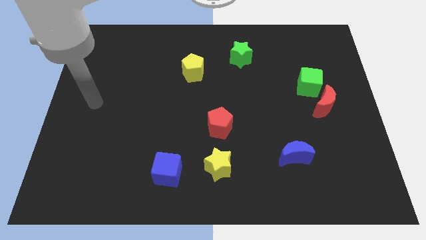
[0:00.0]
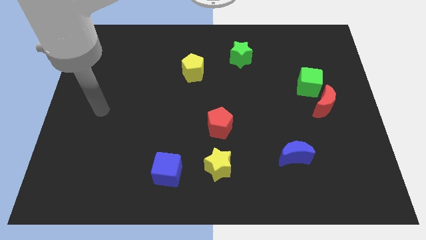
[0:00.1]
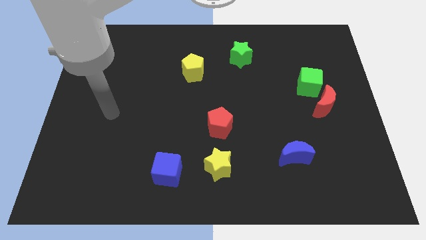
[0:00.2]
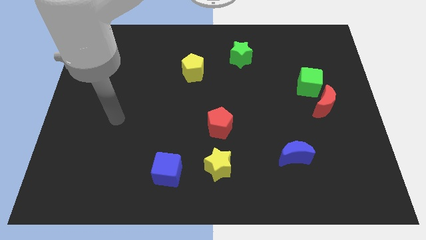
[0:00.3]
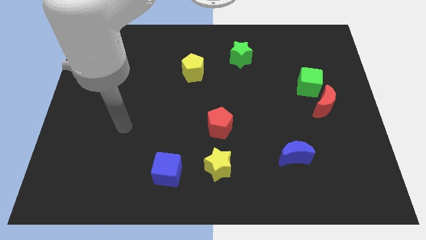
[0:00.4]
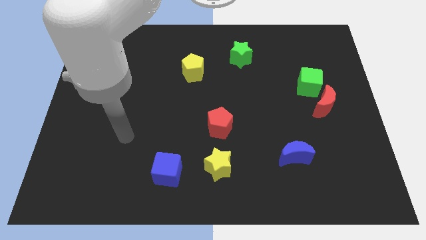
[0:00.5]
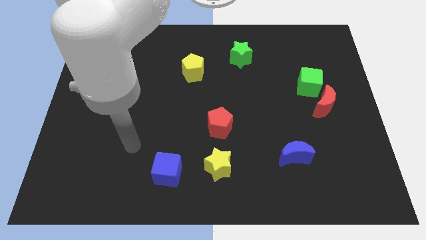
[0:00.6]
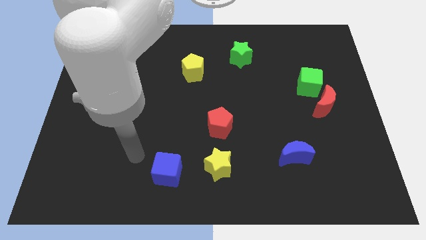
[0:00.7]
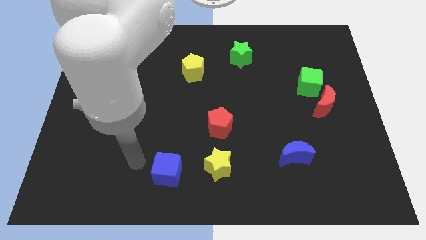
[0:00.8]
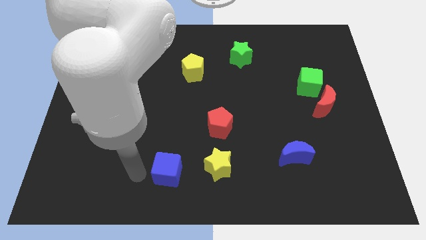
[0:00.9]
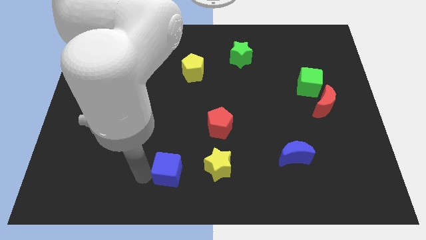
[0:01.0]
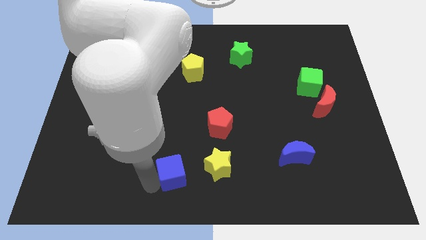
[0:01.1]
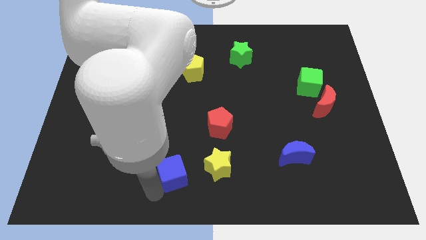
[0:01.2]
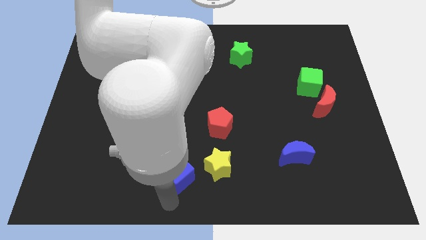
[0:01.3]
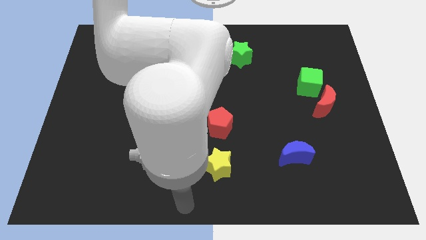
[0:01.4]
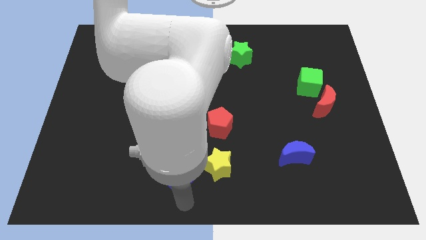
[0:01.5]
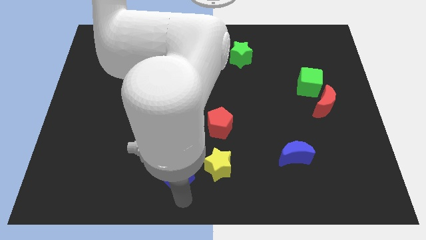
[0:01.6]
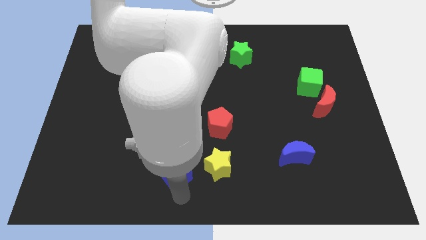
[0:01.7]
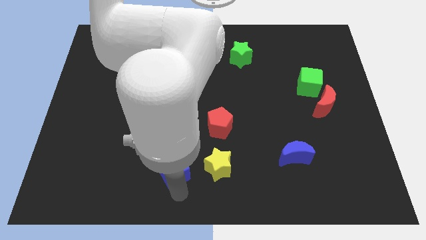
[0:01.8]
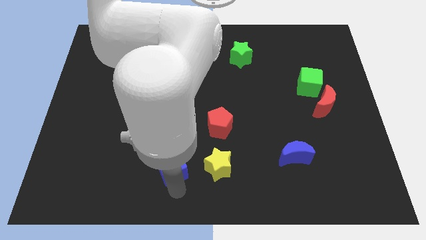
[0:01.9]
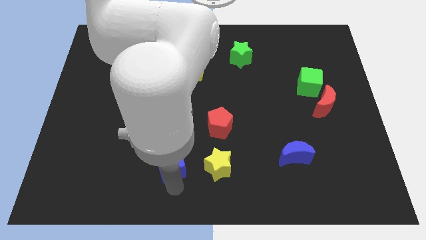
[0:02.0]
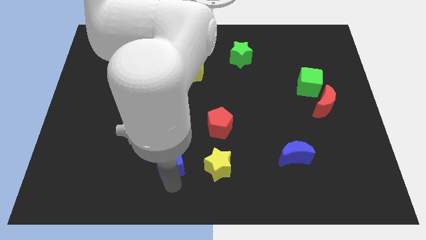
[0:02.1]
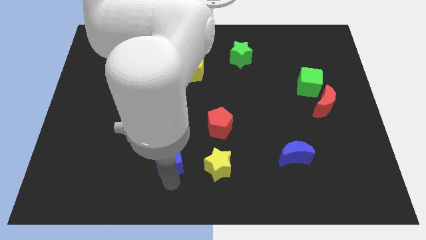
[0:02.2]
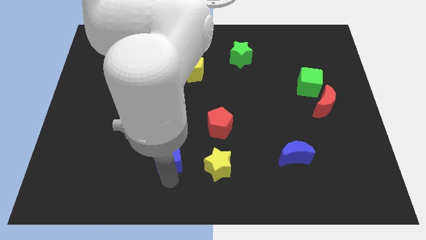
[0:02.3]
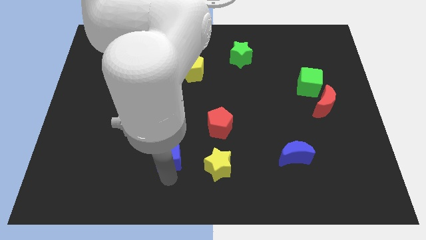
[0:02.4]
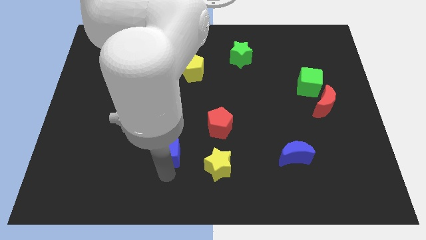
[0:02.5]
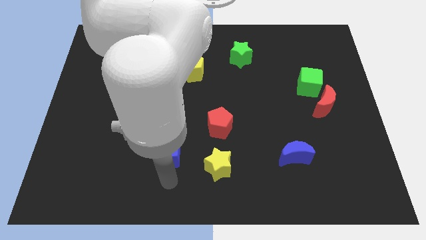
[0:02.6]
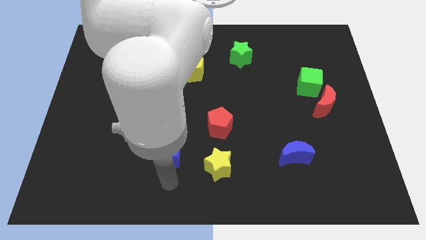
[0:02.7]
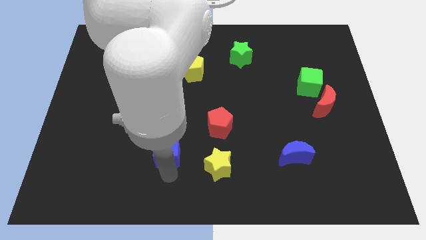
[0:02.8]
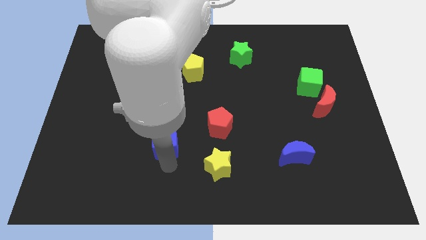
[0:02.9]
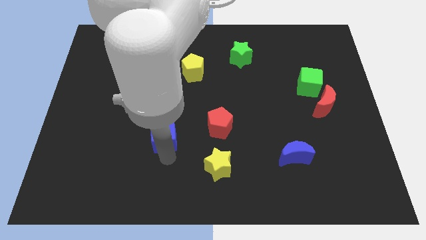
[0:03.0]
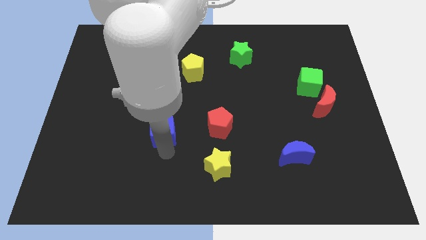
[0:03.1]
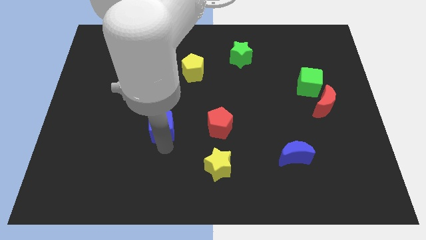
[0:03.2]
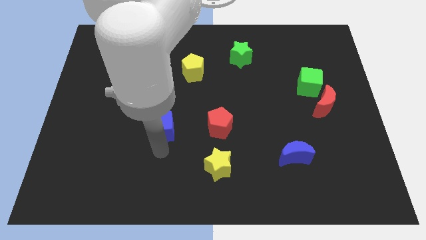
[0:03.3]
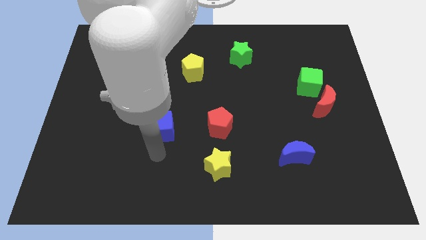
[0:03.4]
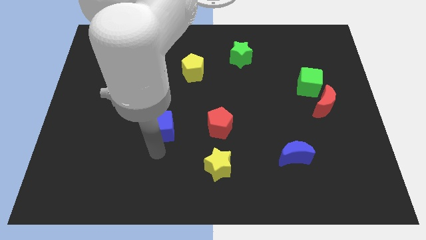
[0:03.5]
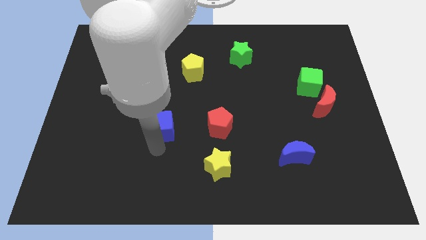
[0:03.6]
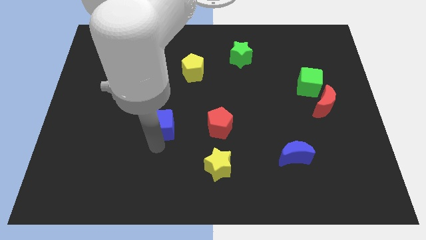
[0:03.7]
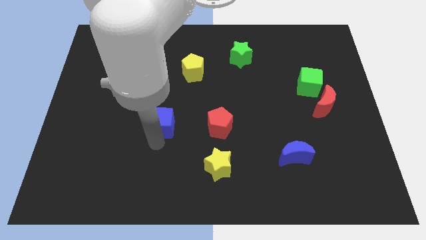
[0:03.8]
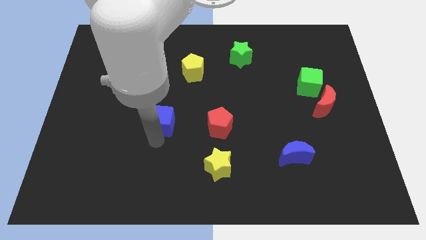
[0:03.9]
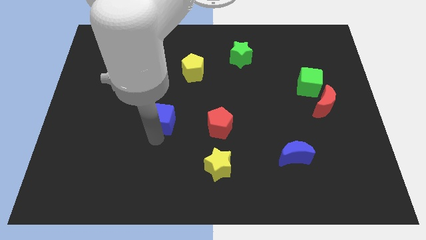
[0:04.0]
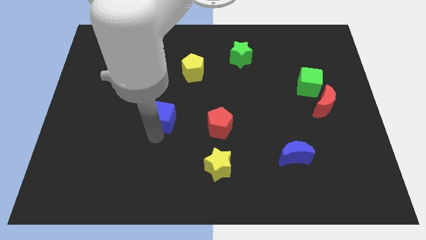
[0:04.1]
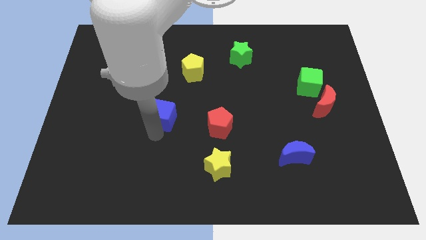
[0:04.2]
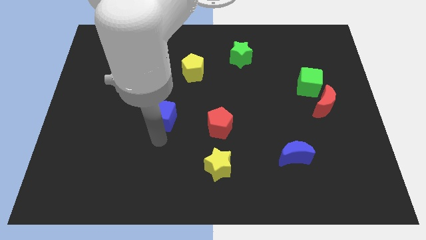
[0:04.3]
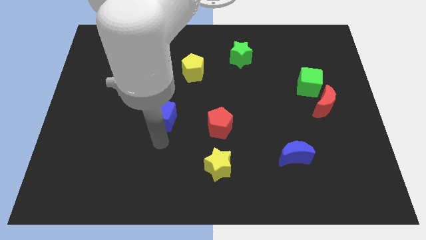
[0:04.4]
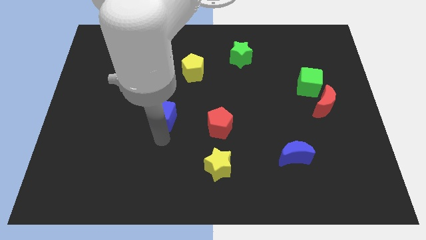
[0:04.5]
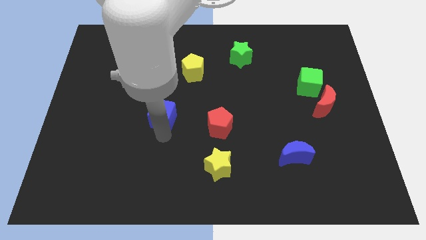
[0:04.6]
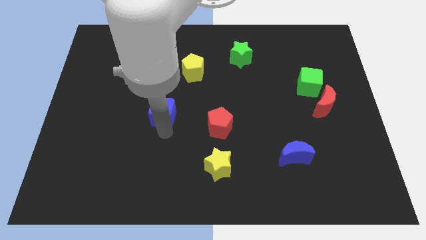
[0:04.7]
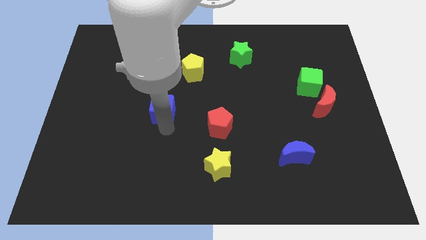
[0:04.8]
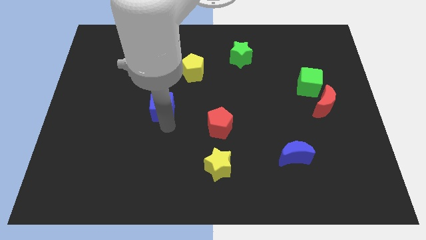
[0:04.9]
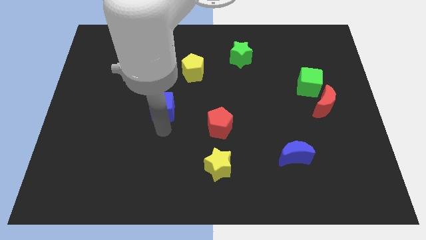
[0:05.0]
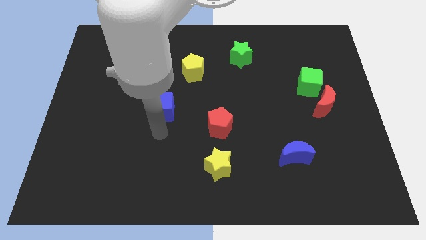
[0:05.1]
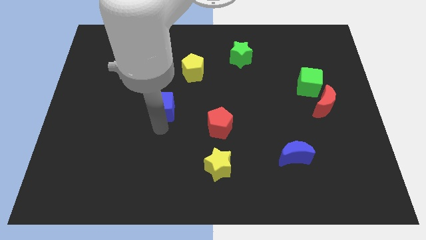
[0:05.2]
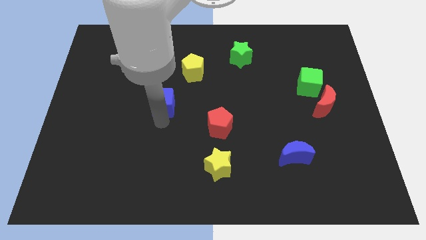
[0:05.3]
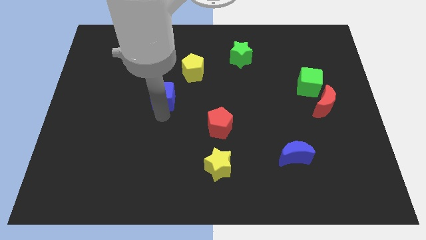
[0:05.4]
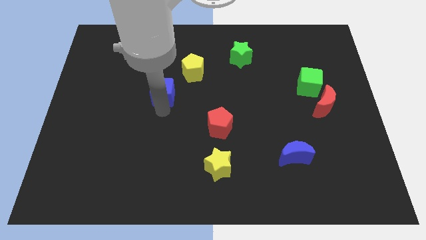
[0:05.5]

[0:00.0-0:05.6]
push the blue cube up

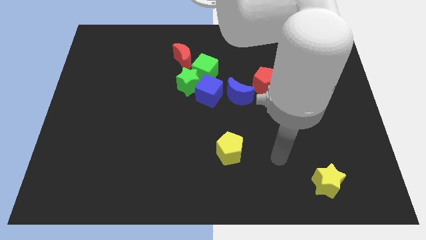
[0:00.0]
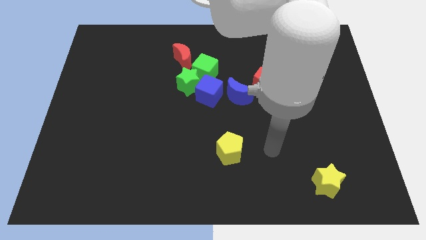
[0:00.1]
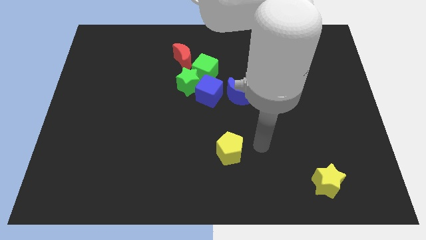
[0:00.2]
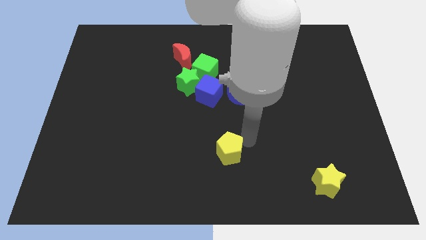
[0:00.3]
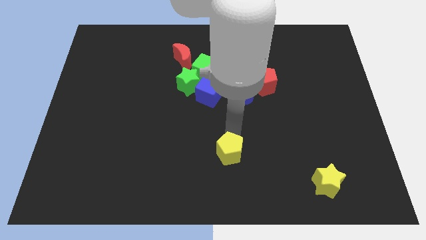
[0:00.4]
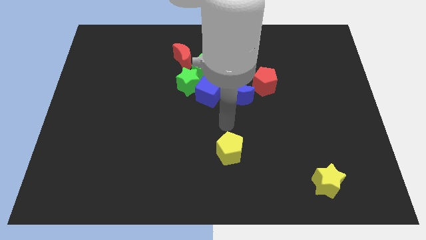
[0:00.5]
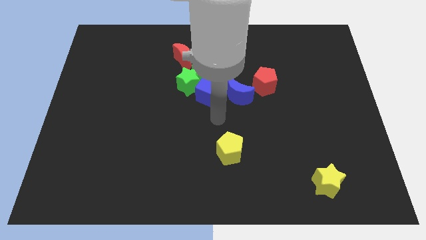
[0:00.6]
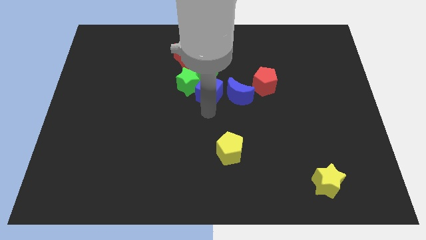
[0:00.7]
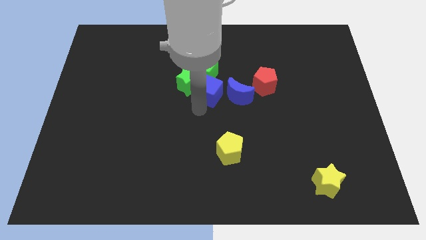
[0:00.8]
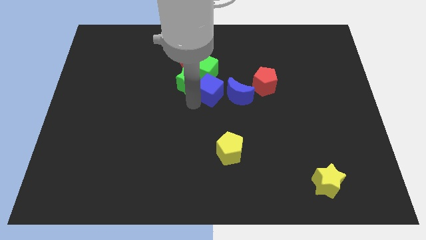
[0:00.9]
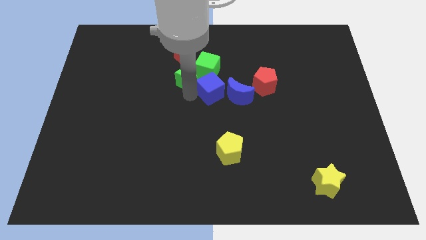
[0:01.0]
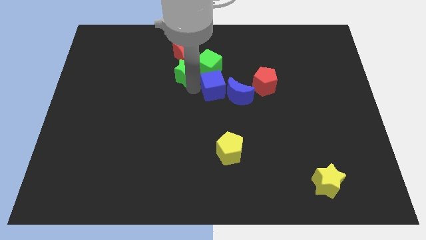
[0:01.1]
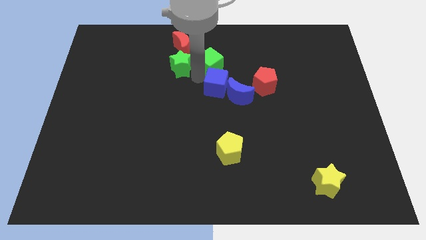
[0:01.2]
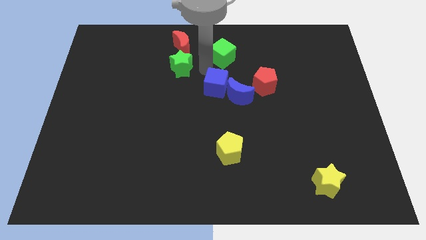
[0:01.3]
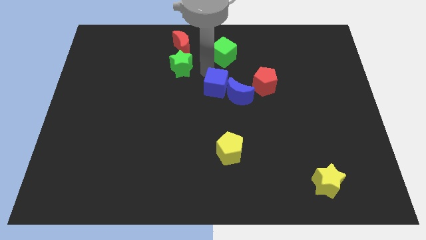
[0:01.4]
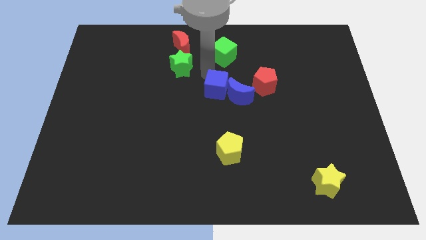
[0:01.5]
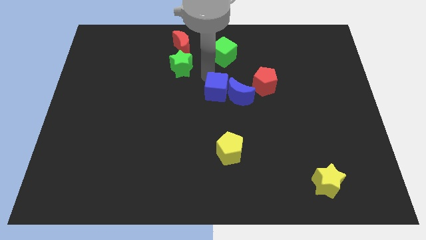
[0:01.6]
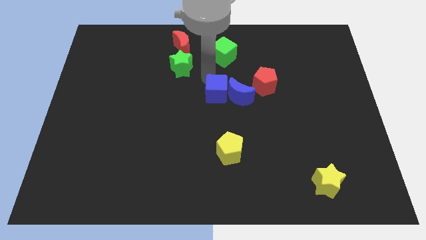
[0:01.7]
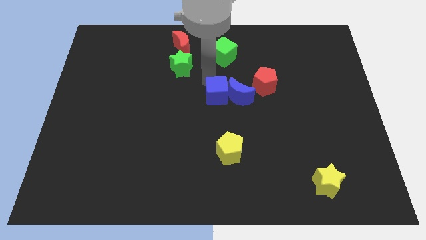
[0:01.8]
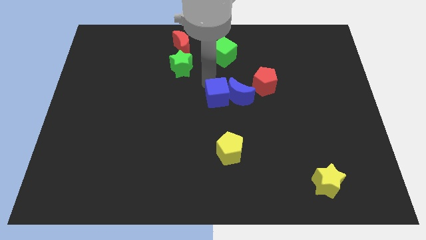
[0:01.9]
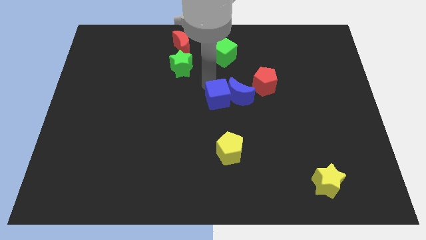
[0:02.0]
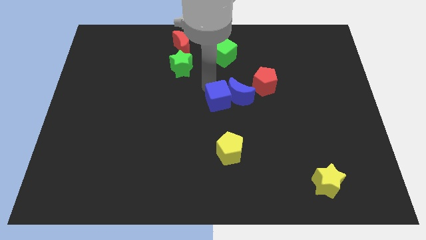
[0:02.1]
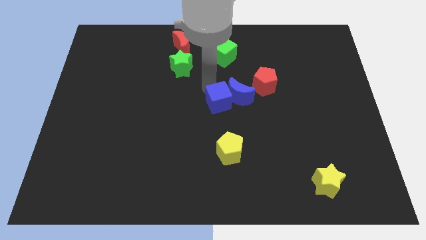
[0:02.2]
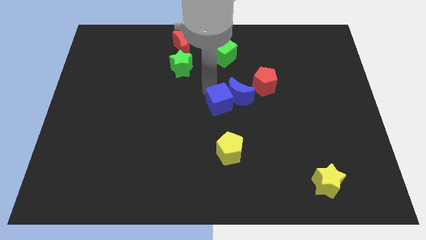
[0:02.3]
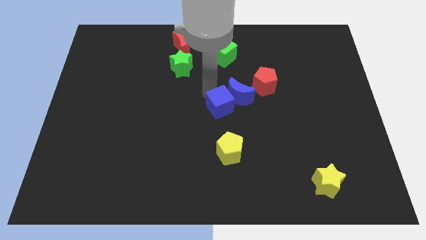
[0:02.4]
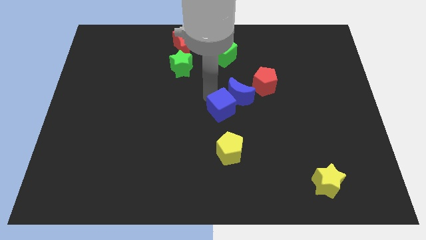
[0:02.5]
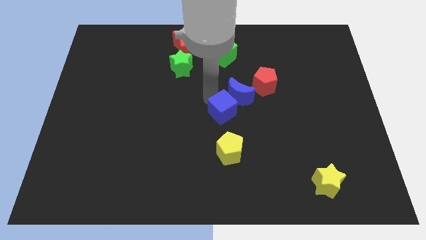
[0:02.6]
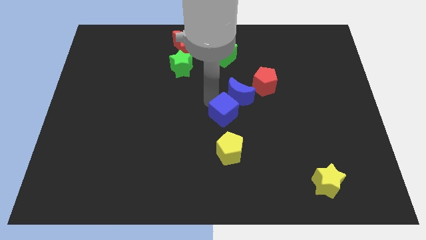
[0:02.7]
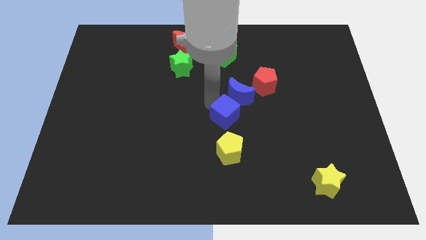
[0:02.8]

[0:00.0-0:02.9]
push the blue cube slightly down and to the right
